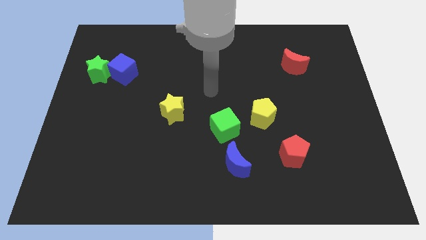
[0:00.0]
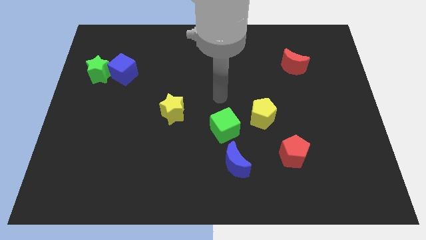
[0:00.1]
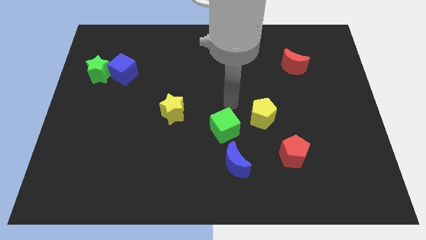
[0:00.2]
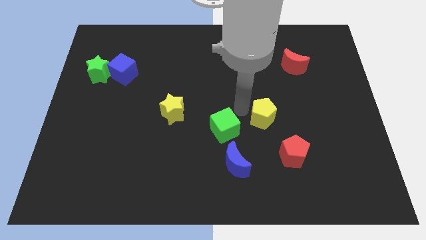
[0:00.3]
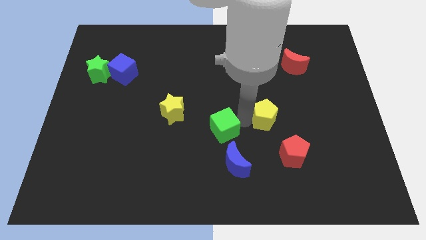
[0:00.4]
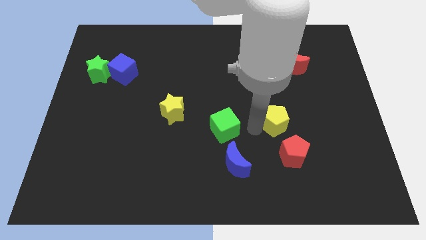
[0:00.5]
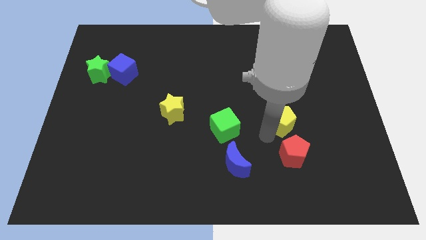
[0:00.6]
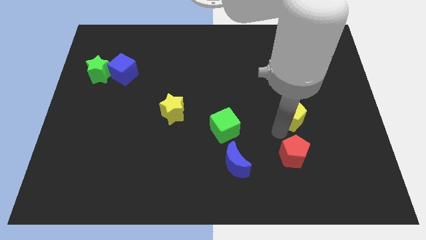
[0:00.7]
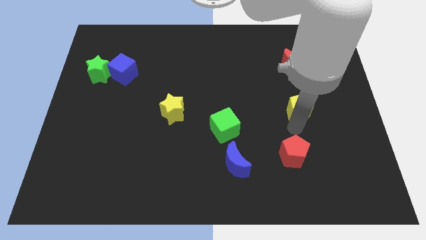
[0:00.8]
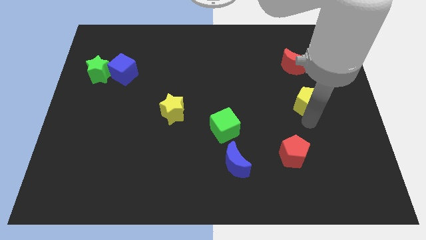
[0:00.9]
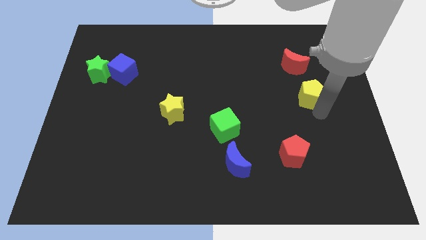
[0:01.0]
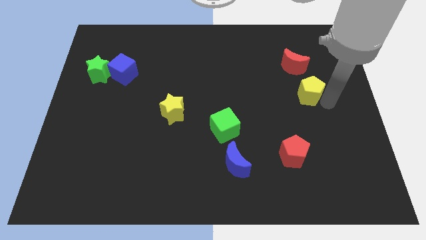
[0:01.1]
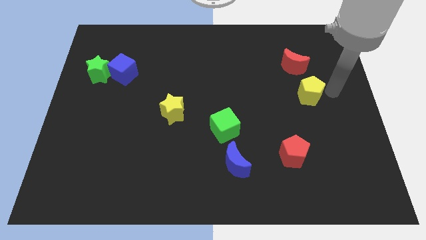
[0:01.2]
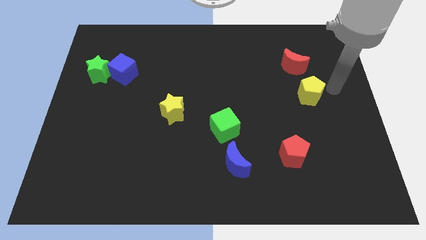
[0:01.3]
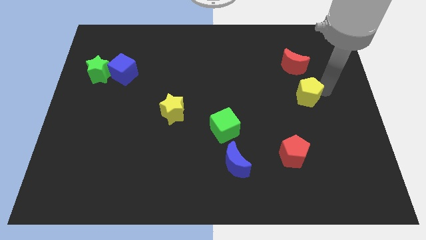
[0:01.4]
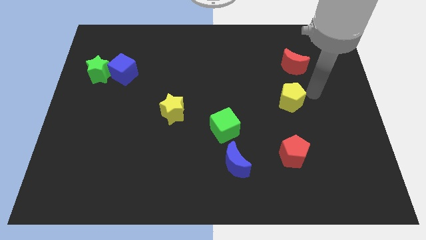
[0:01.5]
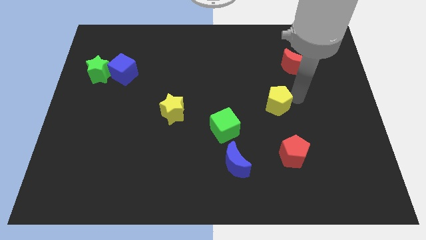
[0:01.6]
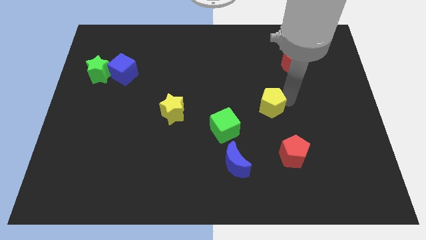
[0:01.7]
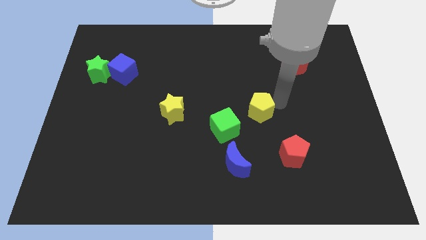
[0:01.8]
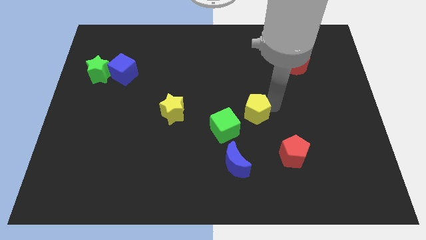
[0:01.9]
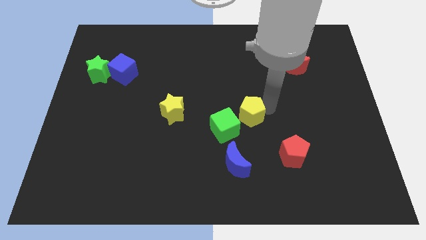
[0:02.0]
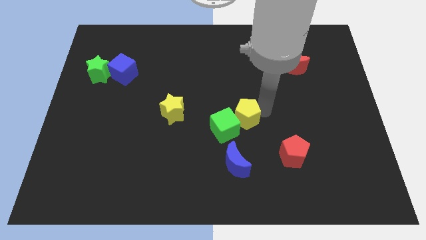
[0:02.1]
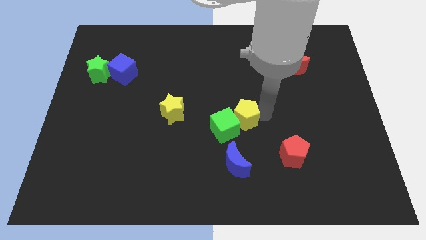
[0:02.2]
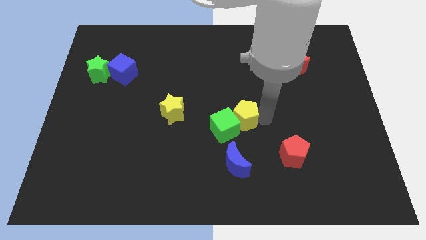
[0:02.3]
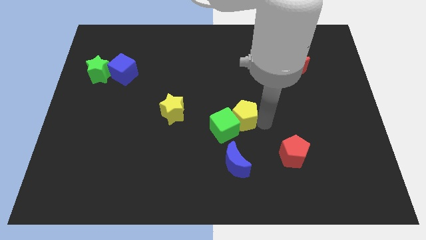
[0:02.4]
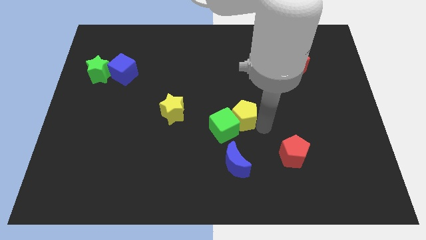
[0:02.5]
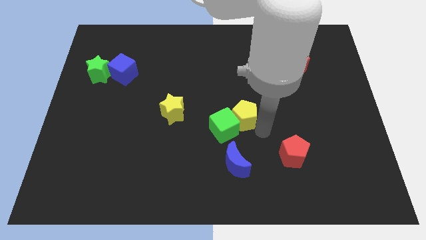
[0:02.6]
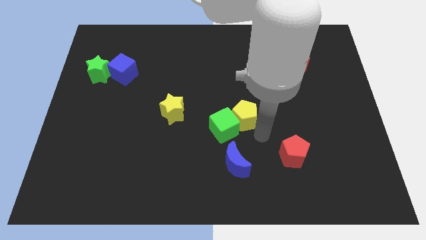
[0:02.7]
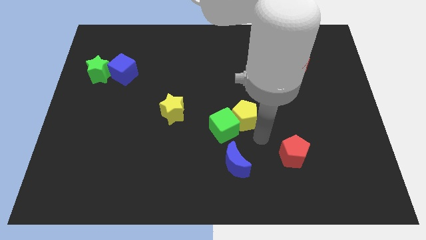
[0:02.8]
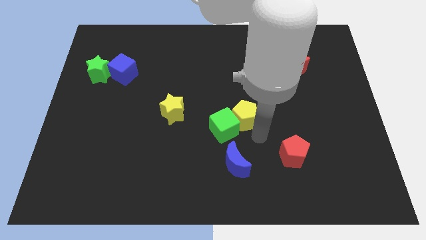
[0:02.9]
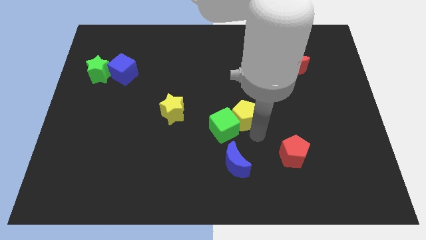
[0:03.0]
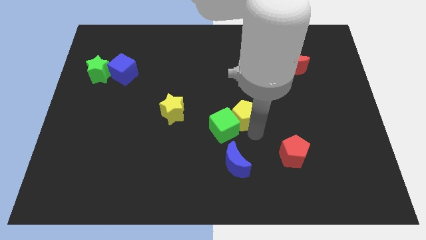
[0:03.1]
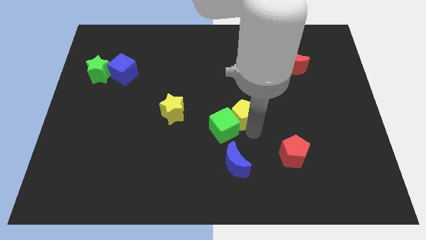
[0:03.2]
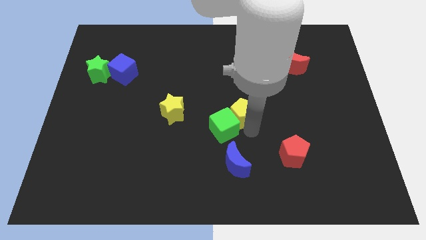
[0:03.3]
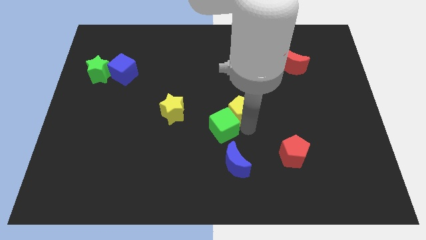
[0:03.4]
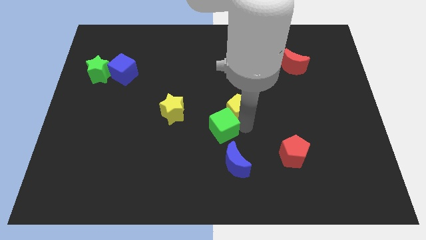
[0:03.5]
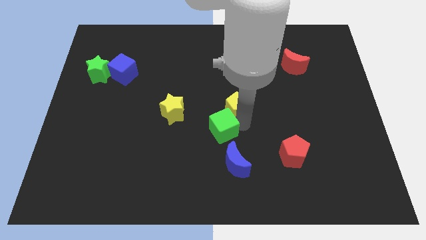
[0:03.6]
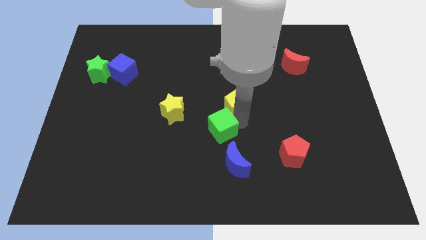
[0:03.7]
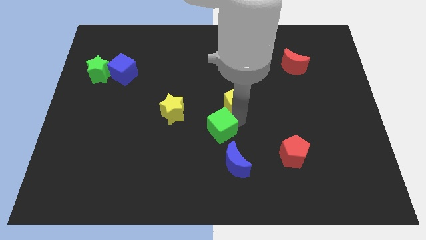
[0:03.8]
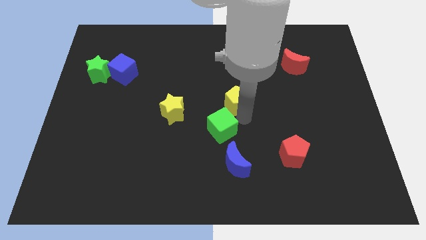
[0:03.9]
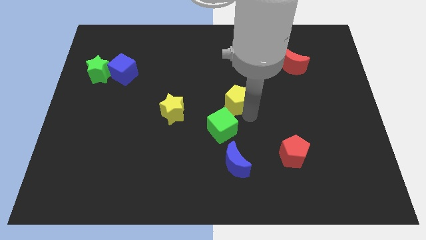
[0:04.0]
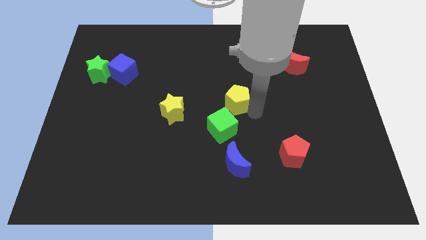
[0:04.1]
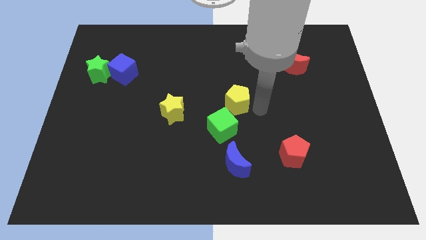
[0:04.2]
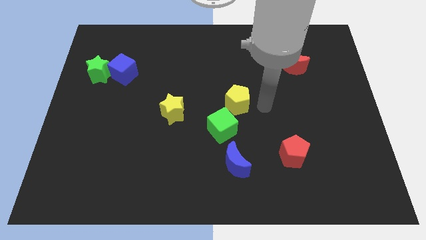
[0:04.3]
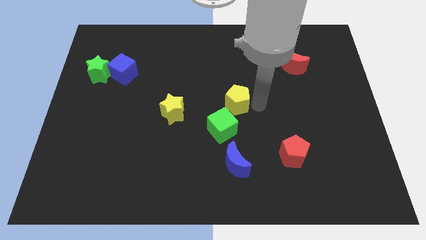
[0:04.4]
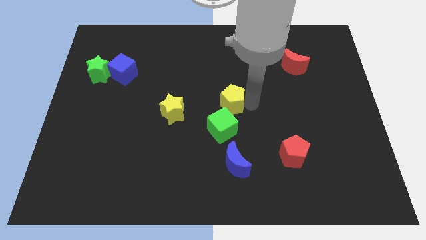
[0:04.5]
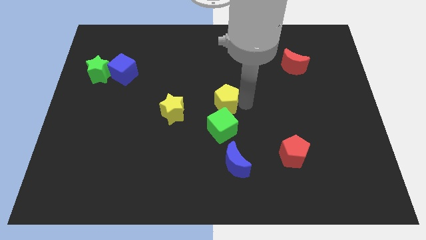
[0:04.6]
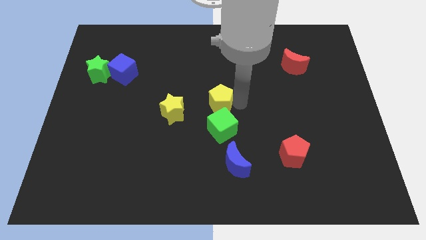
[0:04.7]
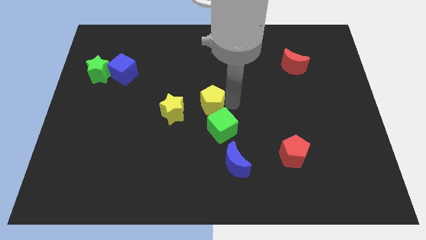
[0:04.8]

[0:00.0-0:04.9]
put the yellow pentagon to the top right of the yellow star

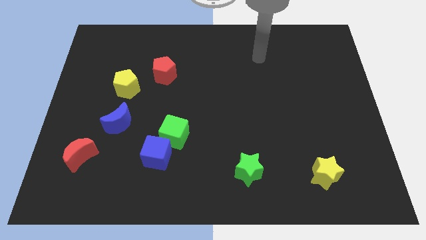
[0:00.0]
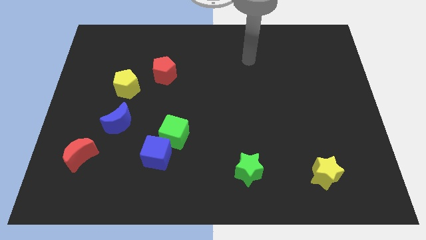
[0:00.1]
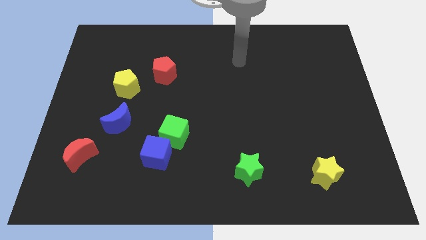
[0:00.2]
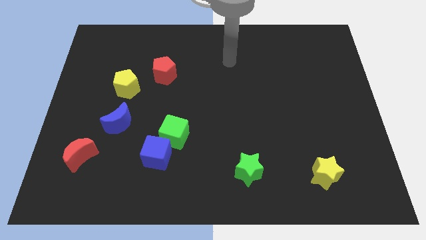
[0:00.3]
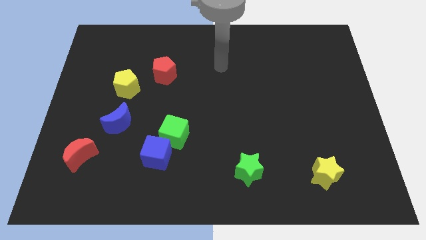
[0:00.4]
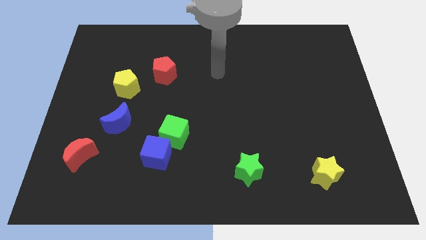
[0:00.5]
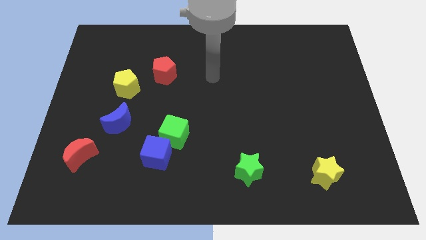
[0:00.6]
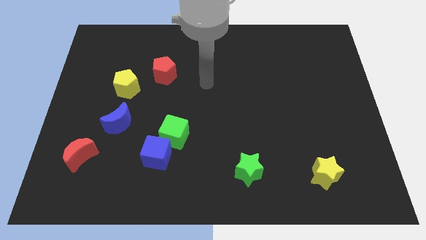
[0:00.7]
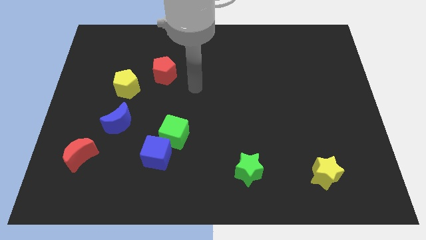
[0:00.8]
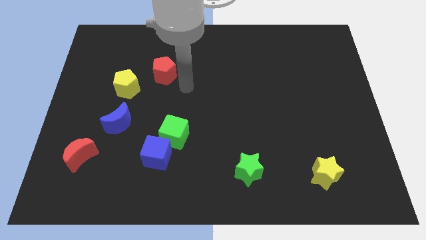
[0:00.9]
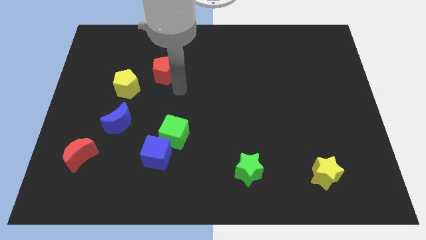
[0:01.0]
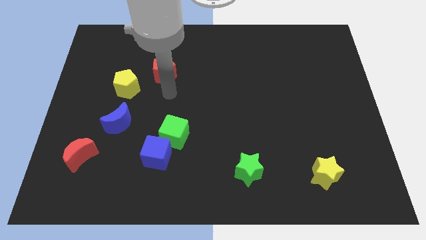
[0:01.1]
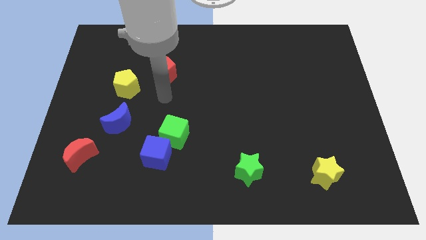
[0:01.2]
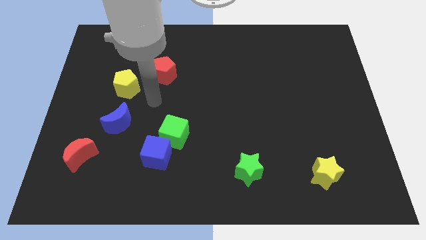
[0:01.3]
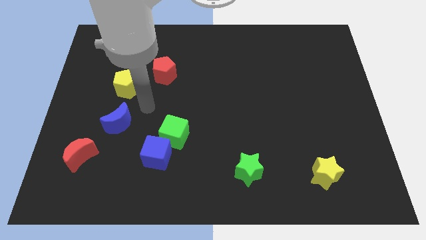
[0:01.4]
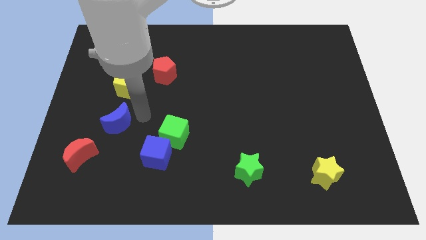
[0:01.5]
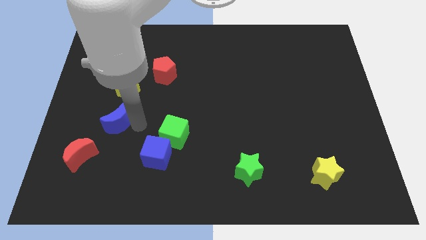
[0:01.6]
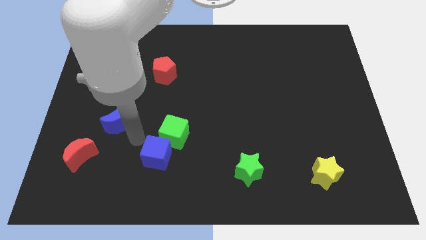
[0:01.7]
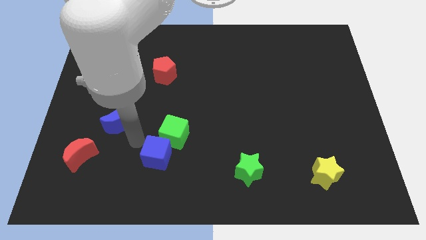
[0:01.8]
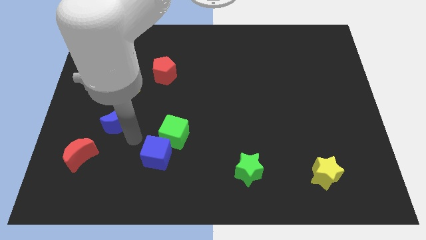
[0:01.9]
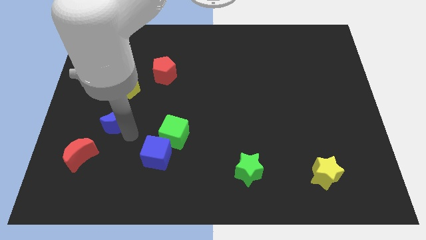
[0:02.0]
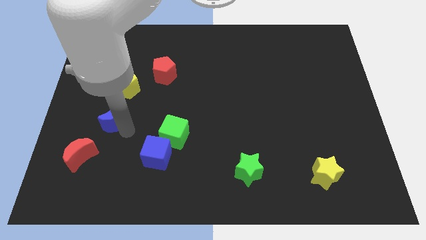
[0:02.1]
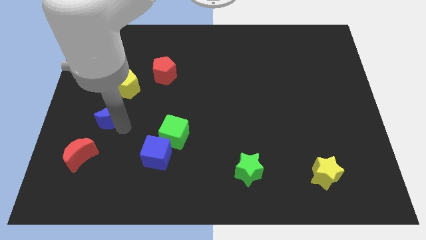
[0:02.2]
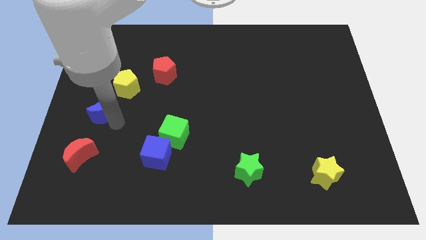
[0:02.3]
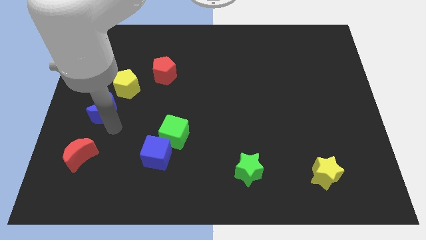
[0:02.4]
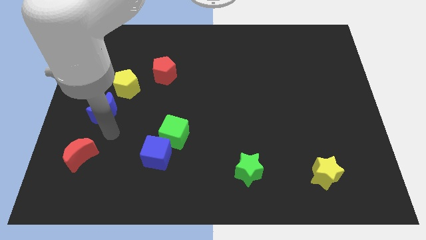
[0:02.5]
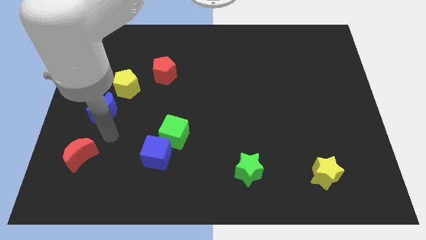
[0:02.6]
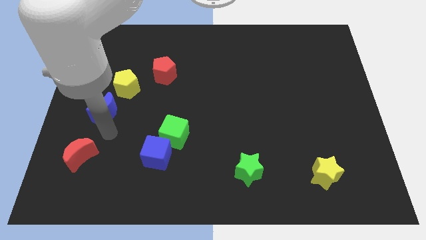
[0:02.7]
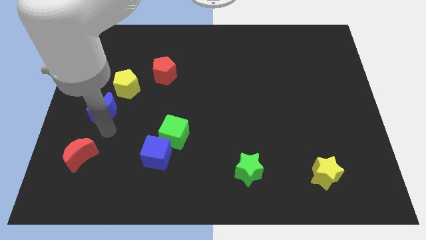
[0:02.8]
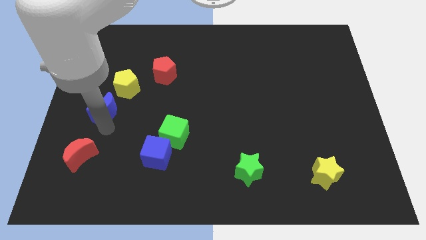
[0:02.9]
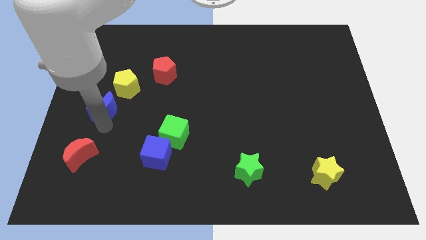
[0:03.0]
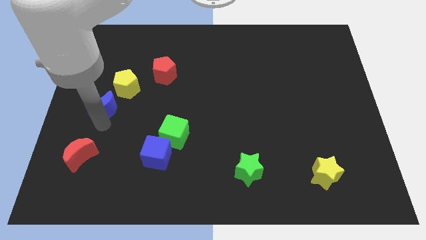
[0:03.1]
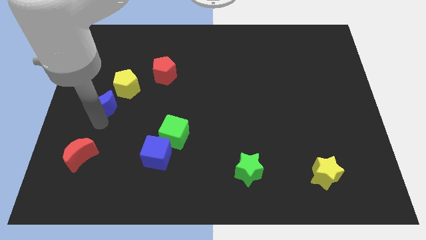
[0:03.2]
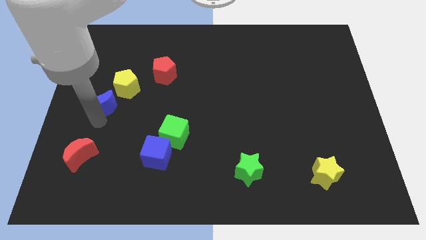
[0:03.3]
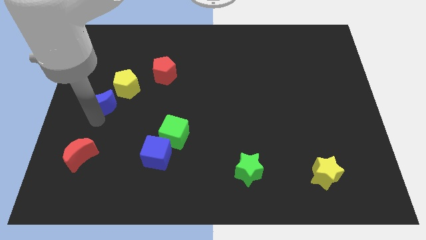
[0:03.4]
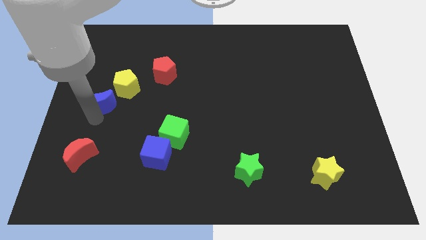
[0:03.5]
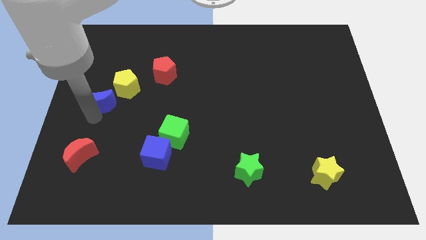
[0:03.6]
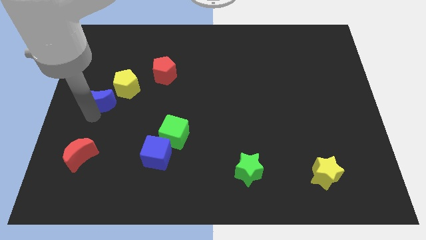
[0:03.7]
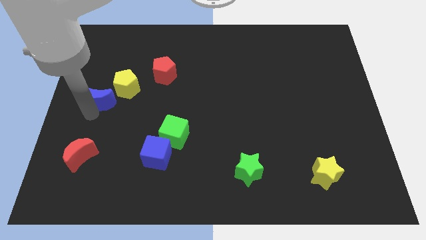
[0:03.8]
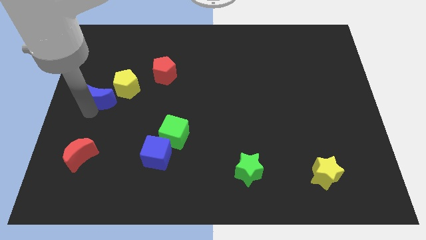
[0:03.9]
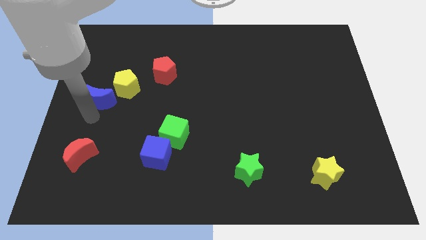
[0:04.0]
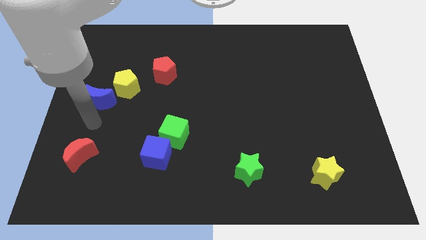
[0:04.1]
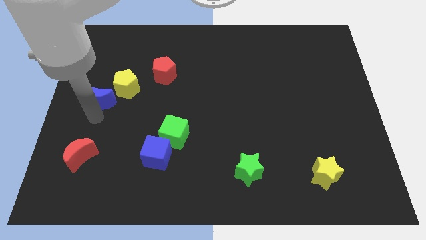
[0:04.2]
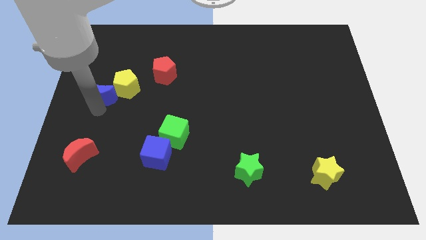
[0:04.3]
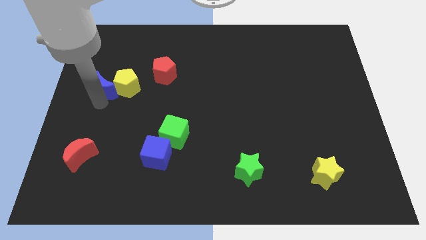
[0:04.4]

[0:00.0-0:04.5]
push the blue moon to the top left side of the yellow pentagon
